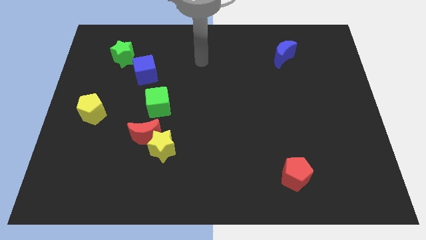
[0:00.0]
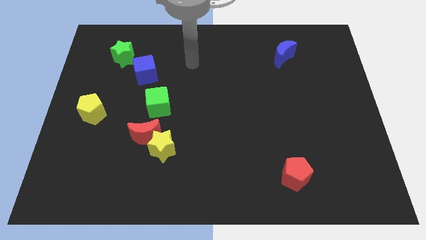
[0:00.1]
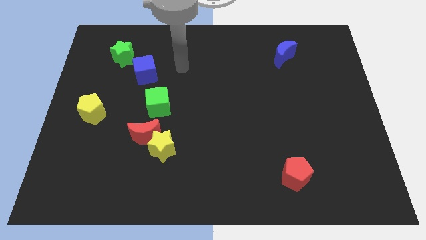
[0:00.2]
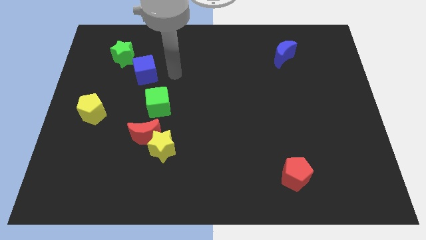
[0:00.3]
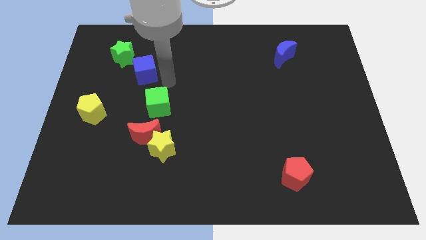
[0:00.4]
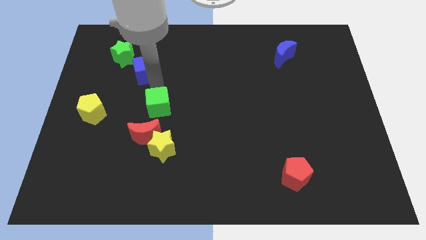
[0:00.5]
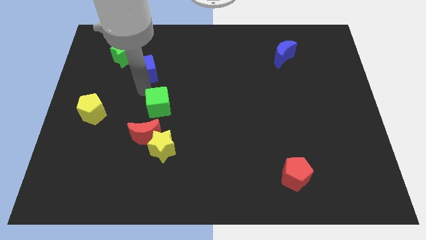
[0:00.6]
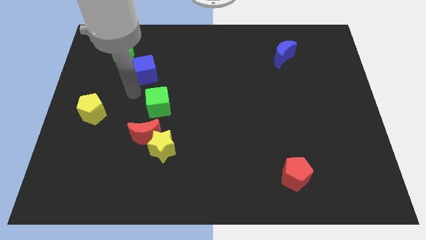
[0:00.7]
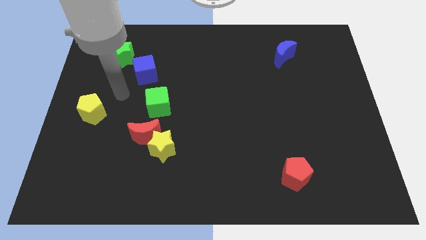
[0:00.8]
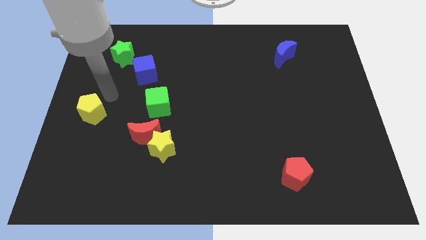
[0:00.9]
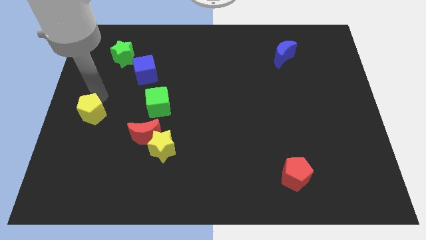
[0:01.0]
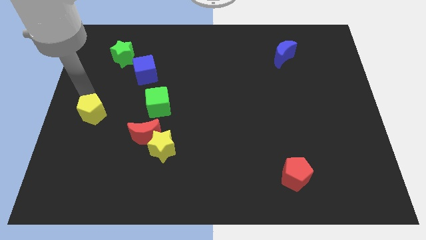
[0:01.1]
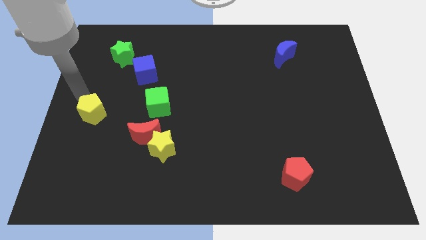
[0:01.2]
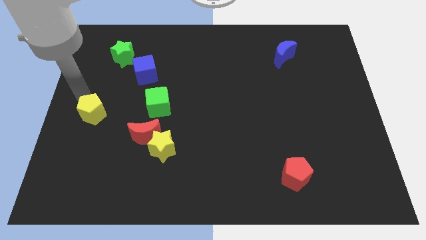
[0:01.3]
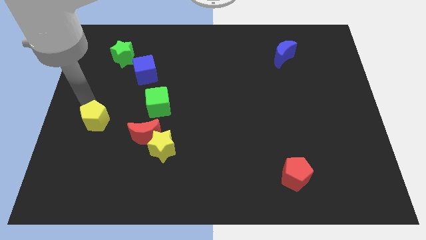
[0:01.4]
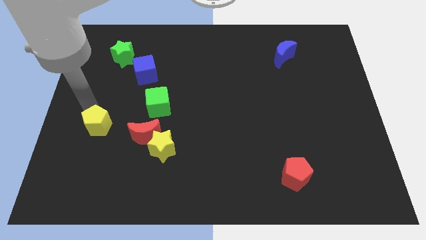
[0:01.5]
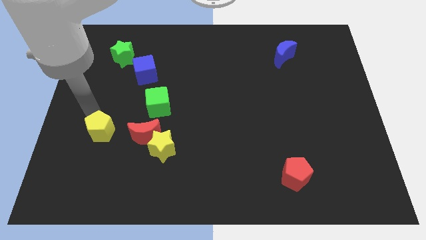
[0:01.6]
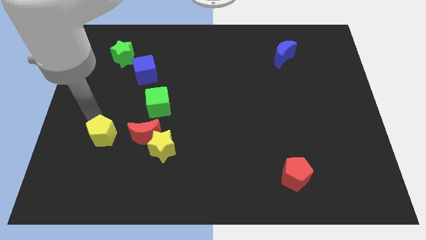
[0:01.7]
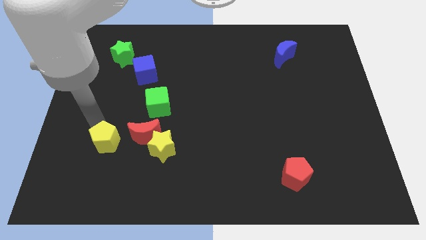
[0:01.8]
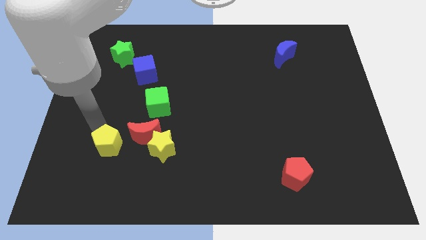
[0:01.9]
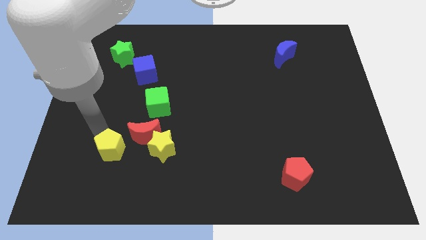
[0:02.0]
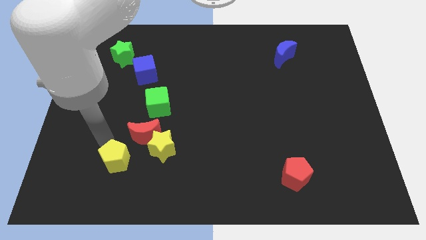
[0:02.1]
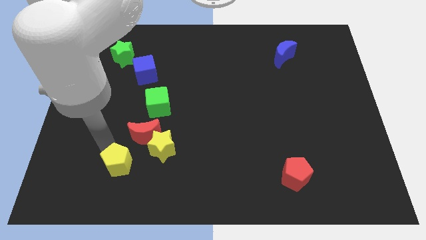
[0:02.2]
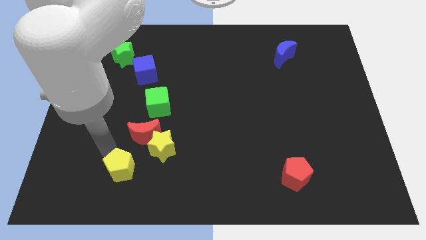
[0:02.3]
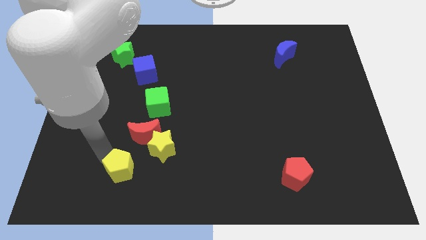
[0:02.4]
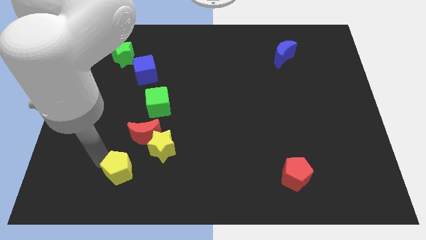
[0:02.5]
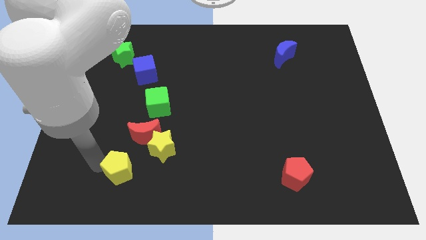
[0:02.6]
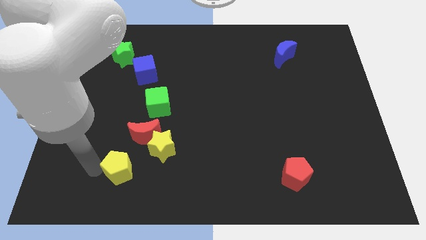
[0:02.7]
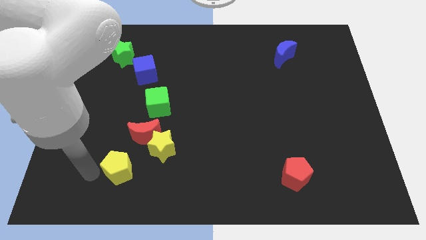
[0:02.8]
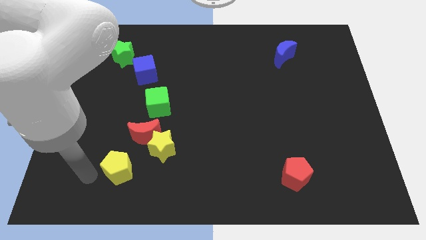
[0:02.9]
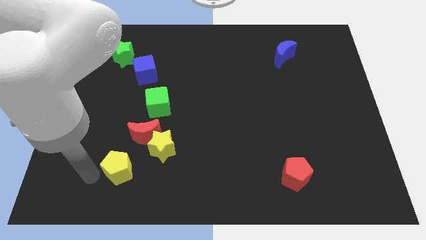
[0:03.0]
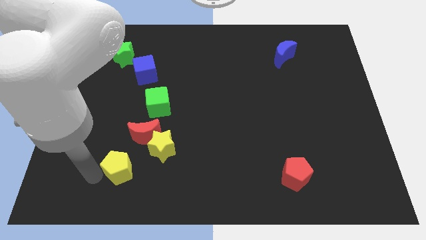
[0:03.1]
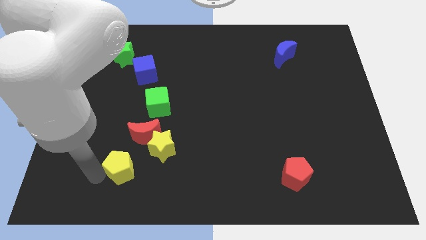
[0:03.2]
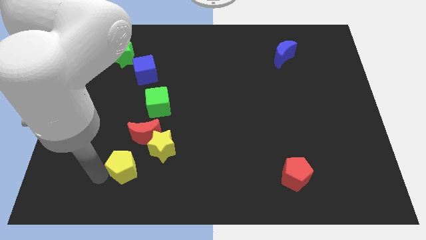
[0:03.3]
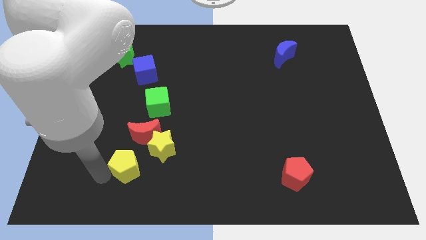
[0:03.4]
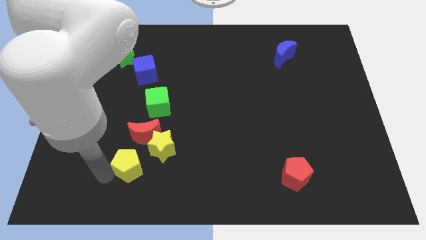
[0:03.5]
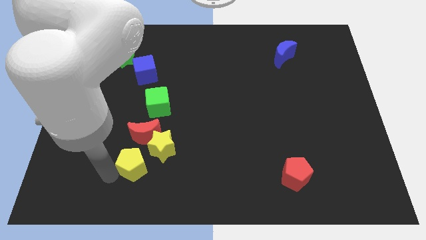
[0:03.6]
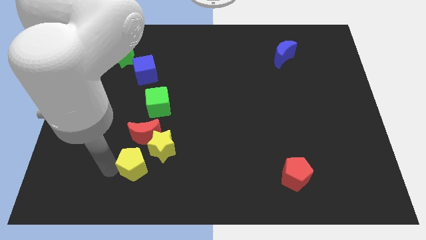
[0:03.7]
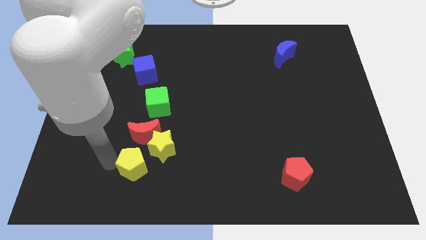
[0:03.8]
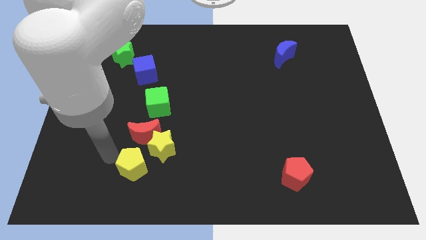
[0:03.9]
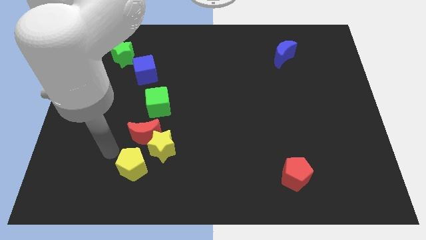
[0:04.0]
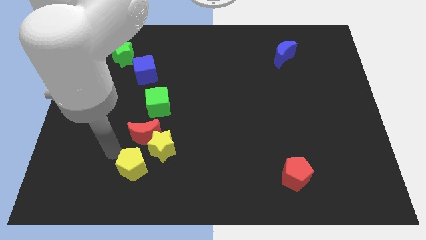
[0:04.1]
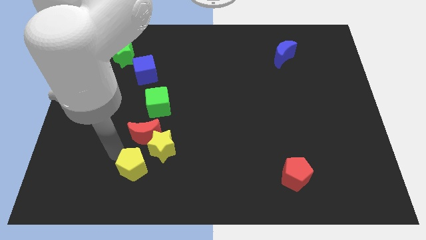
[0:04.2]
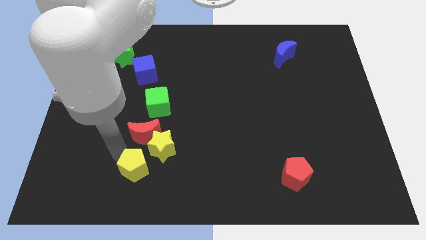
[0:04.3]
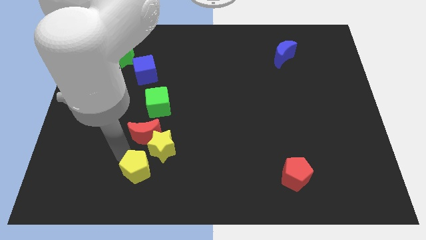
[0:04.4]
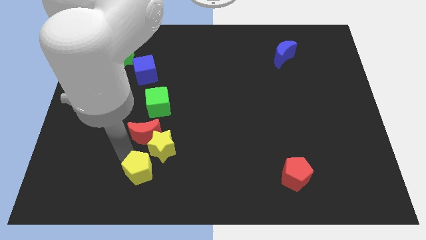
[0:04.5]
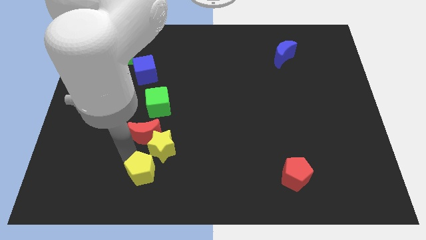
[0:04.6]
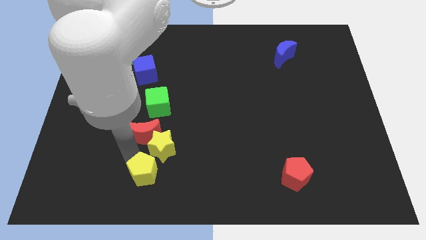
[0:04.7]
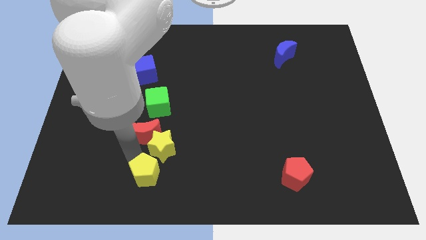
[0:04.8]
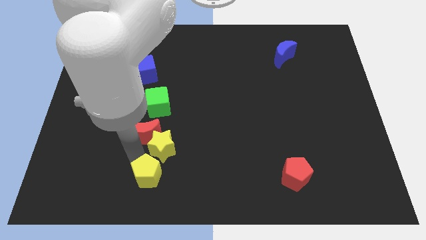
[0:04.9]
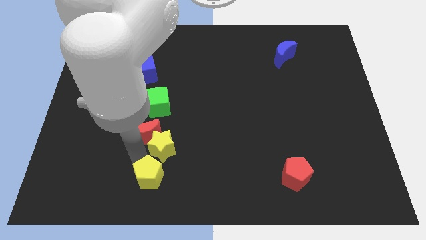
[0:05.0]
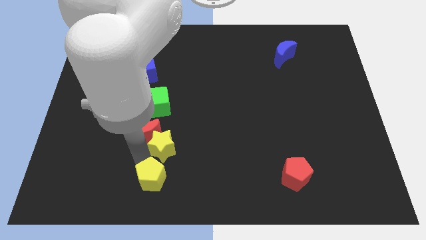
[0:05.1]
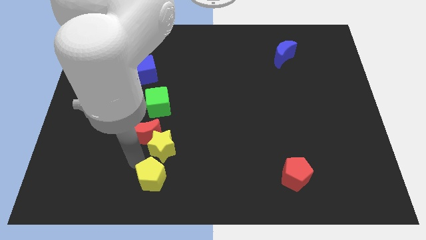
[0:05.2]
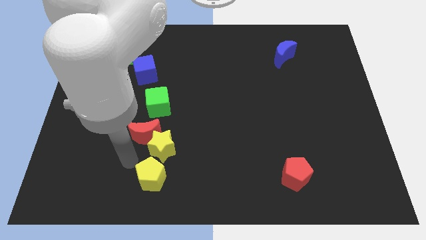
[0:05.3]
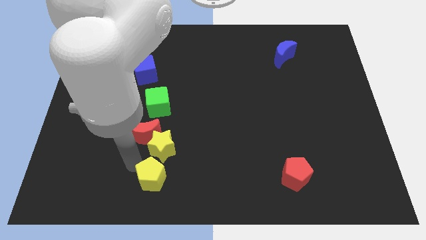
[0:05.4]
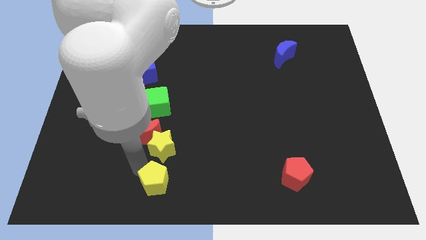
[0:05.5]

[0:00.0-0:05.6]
slide the yellow pentagon to the bottom
